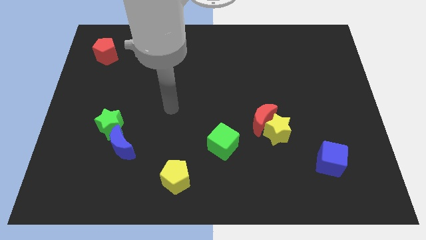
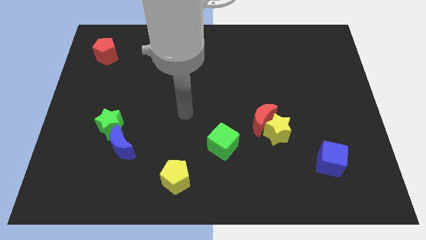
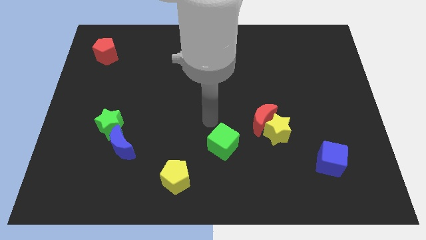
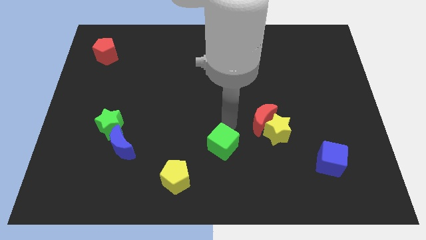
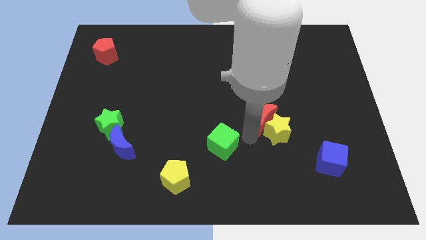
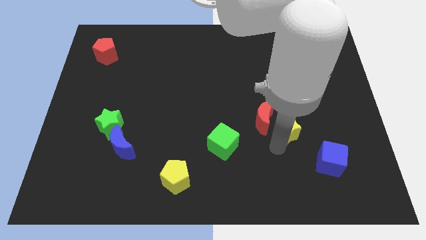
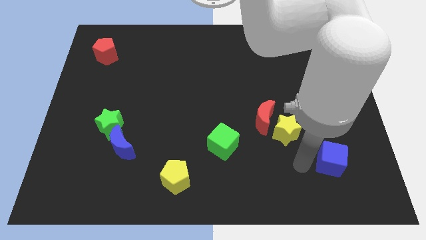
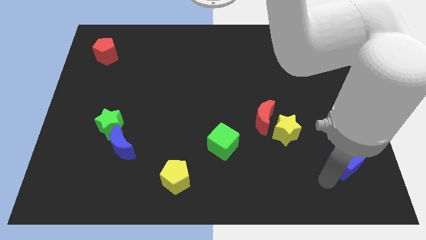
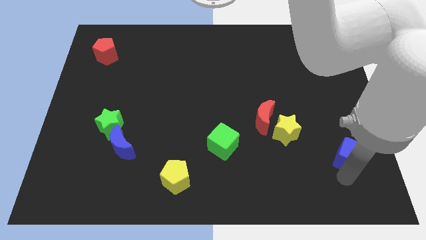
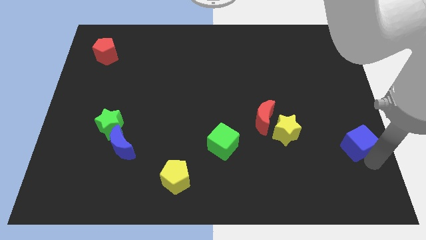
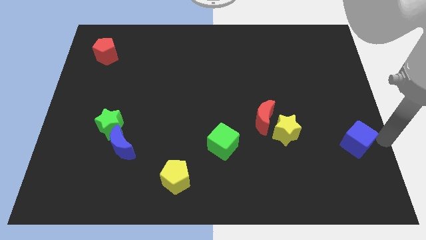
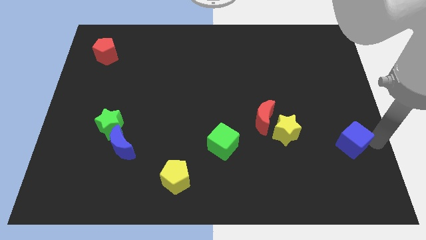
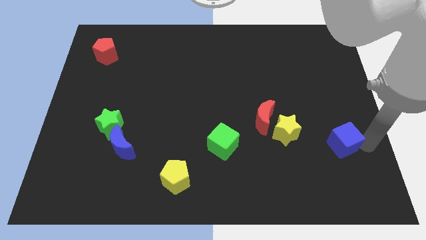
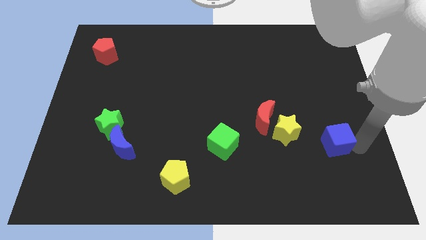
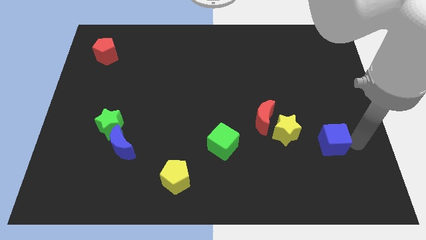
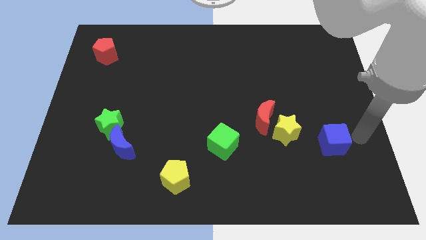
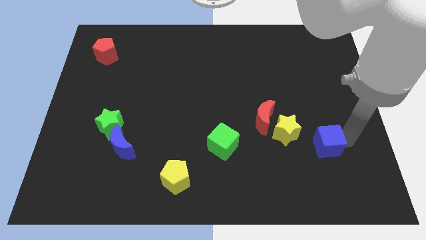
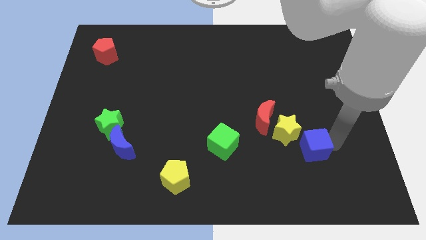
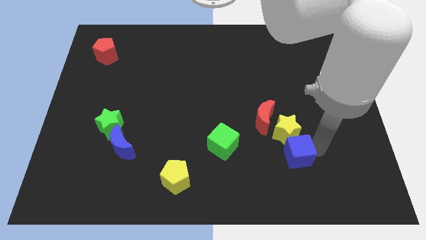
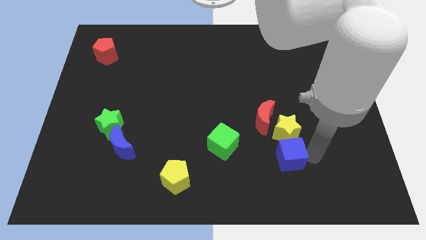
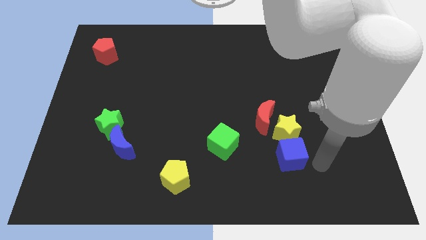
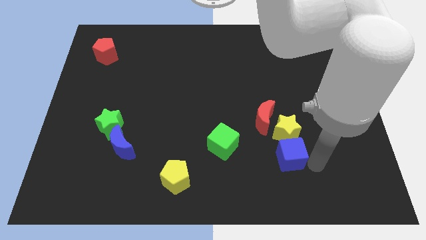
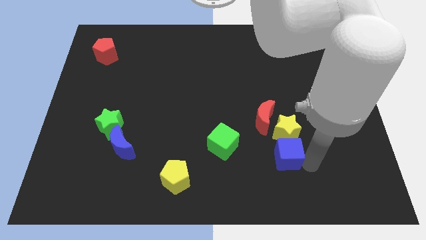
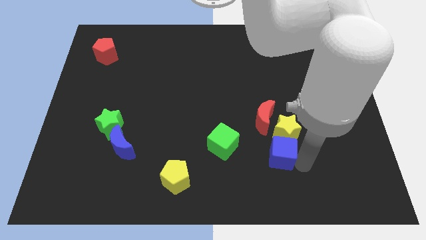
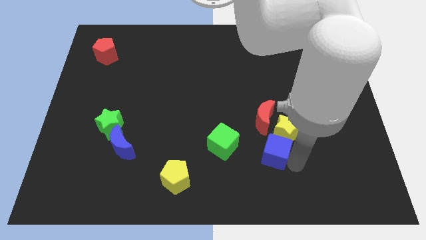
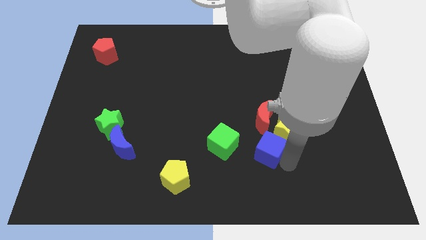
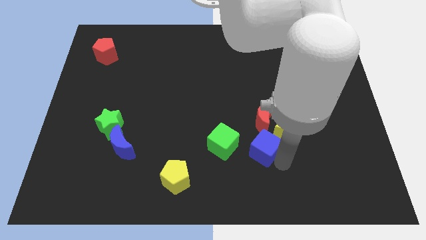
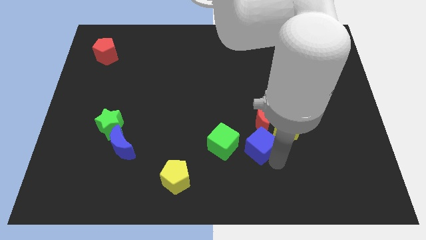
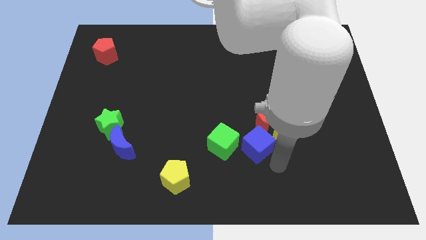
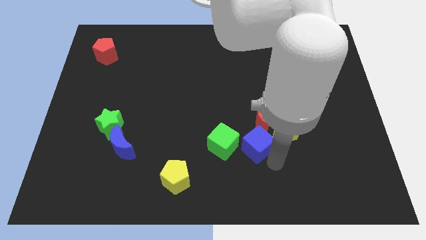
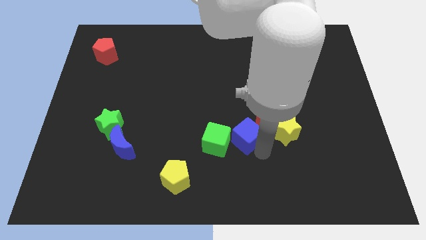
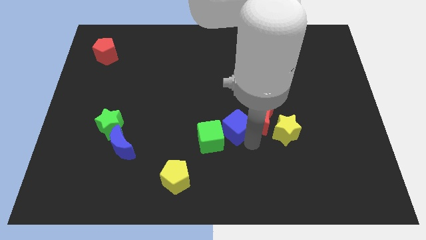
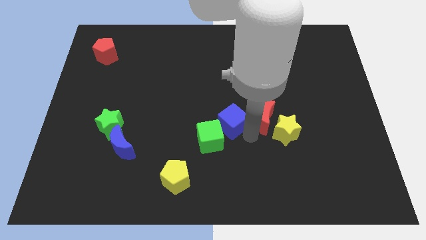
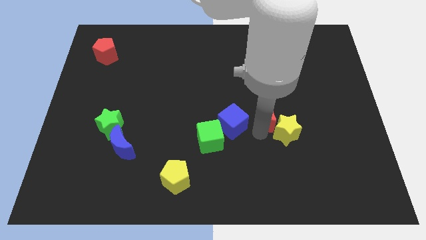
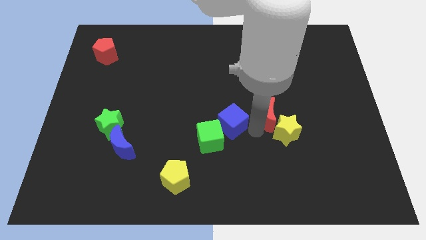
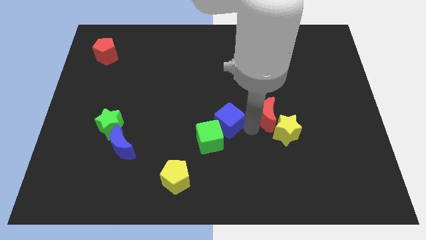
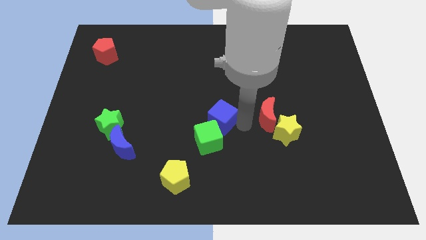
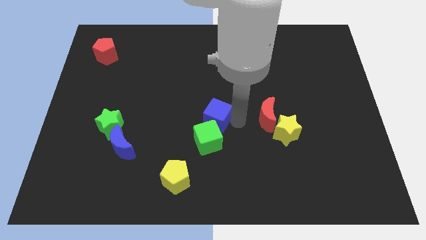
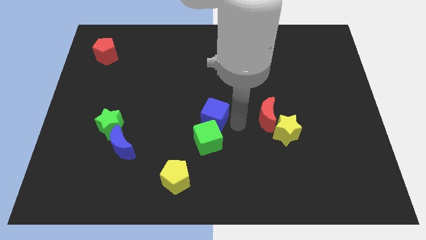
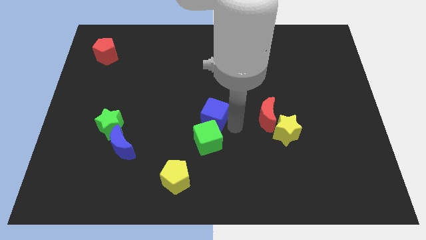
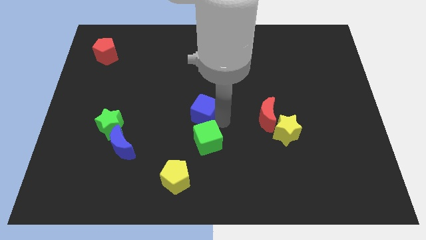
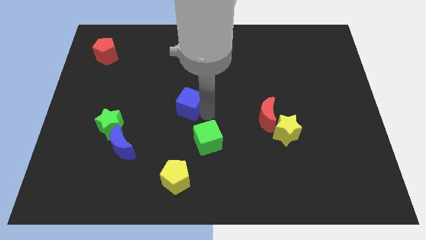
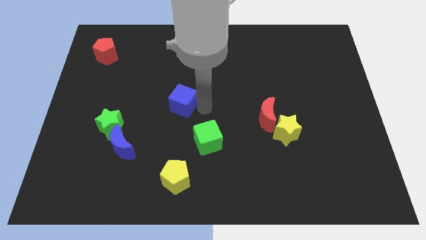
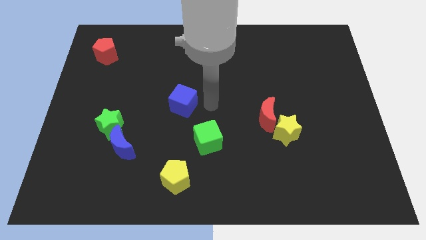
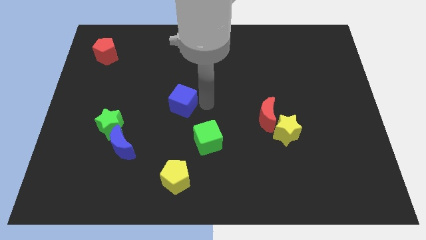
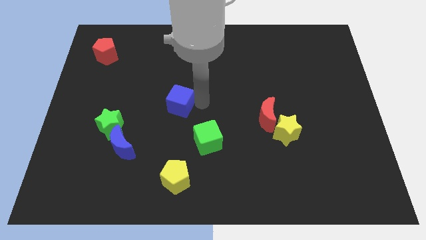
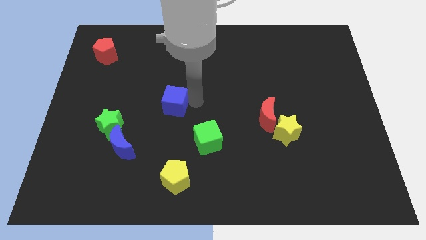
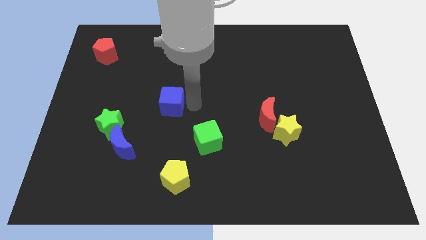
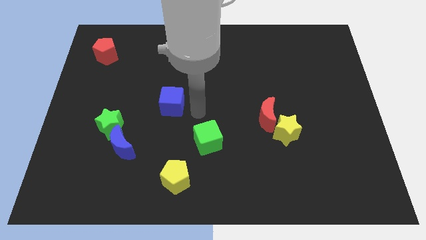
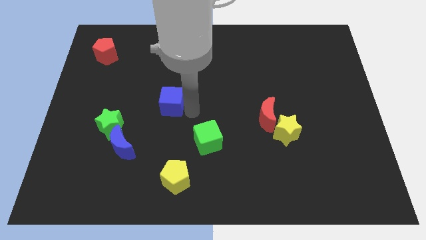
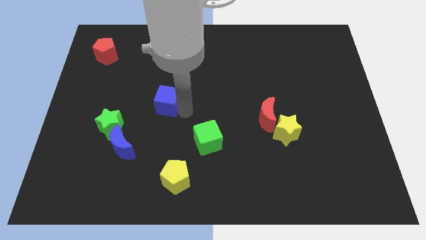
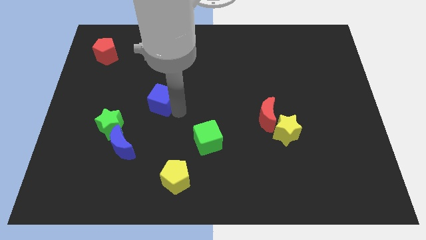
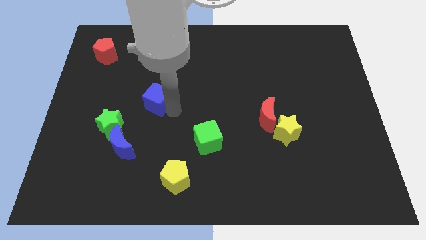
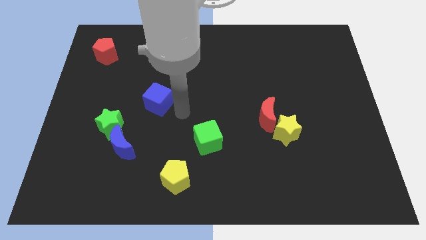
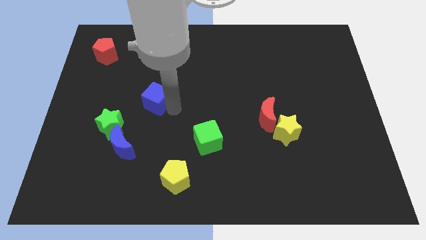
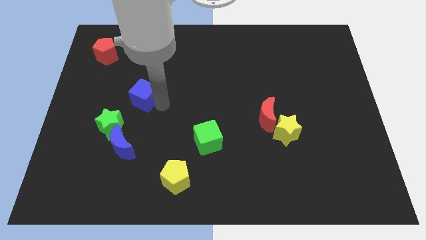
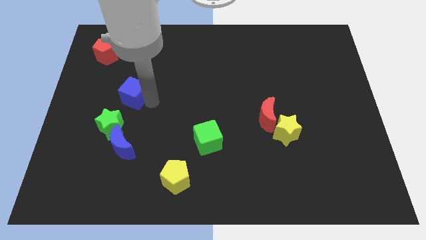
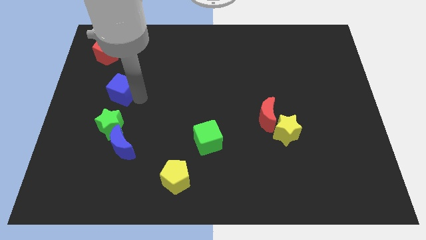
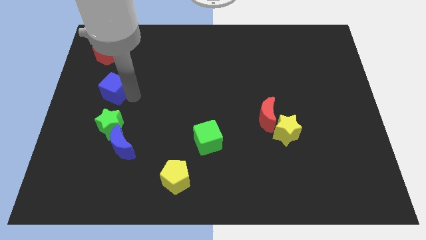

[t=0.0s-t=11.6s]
slide the blue cube to the bottom of the red pentagon

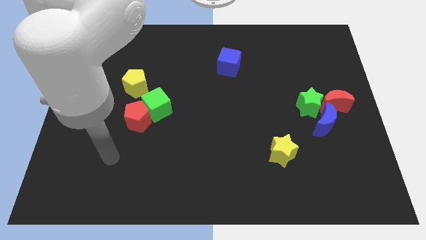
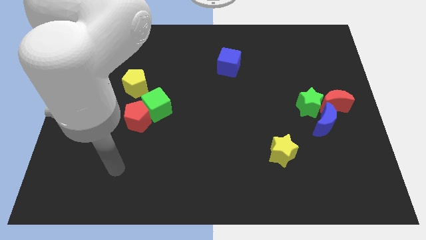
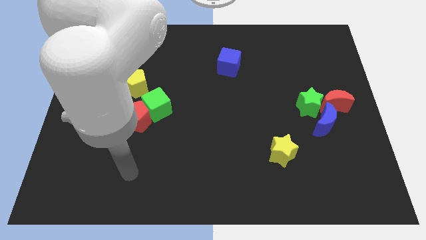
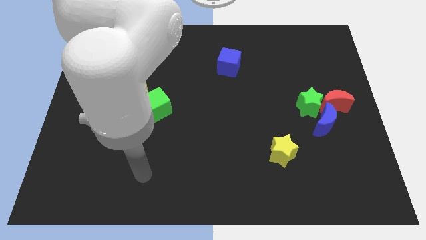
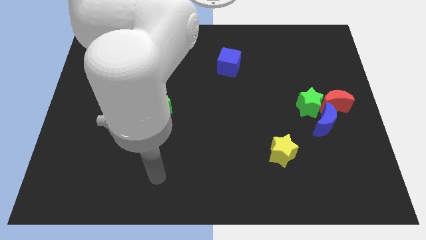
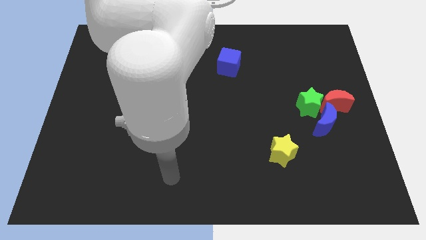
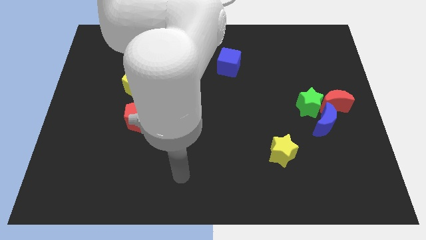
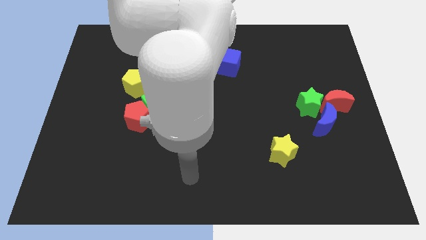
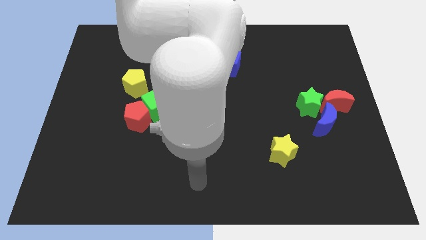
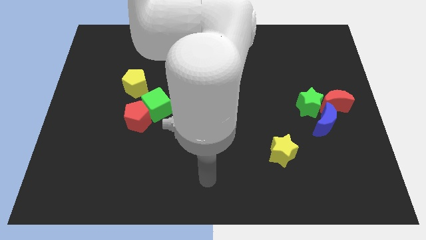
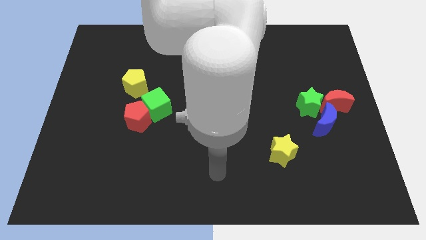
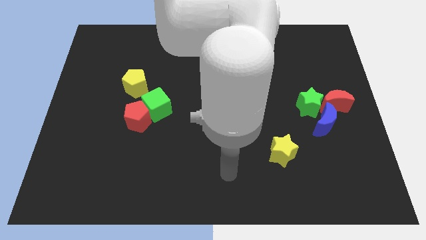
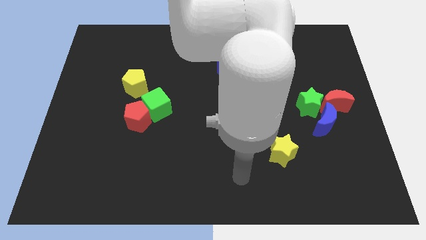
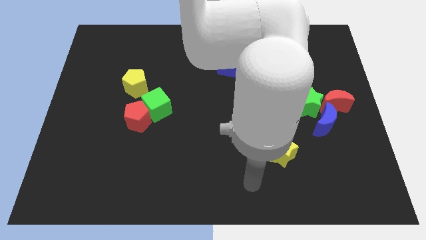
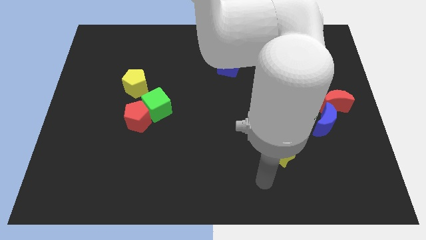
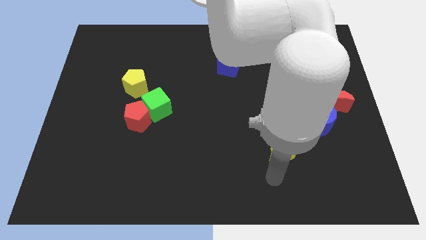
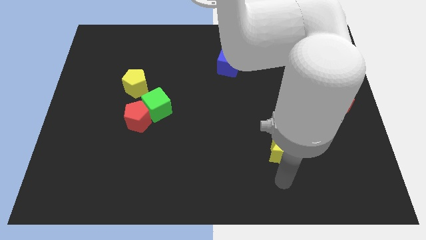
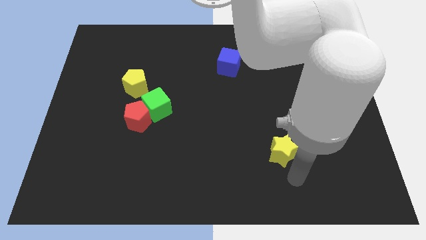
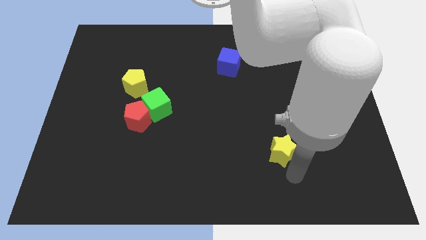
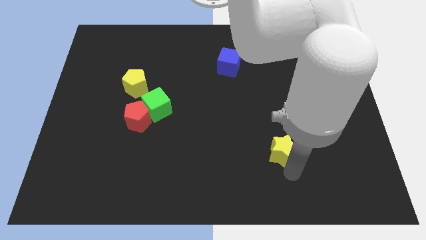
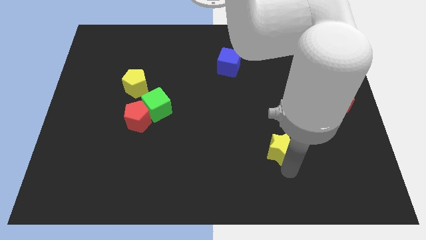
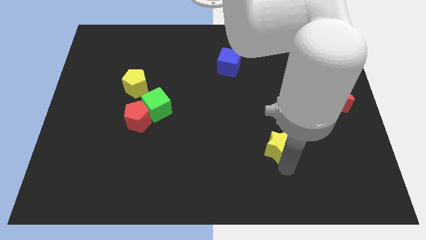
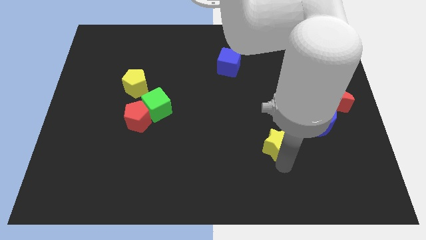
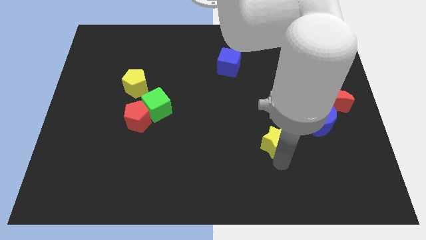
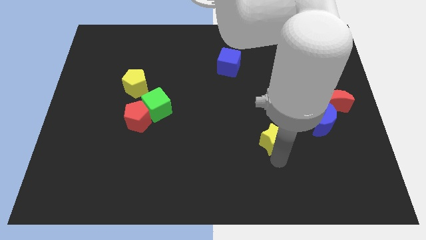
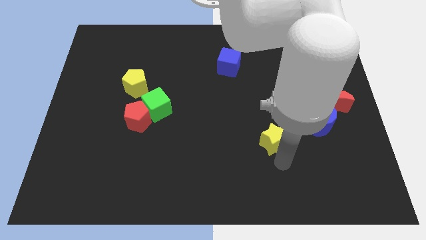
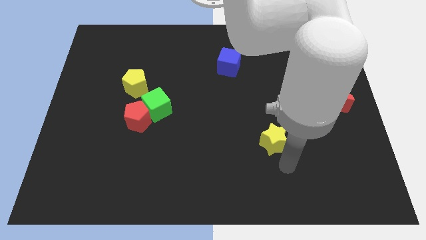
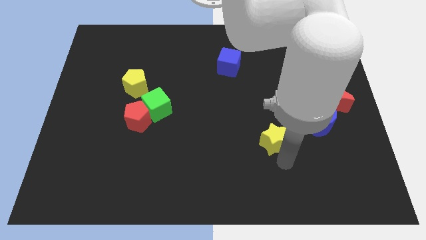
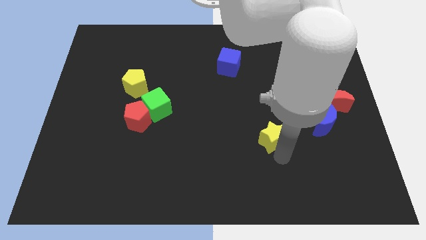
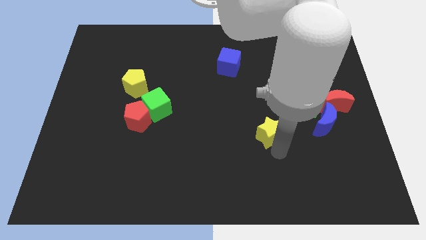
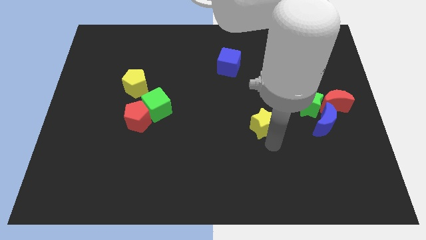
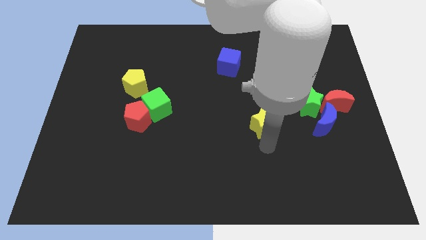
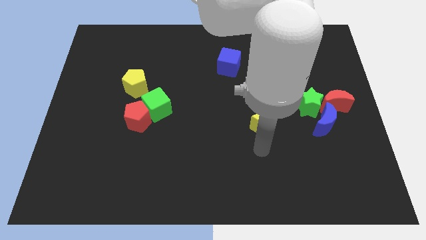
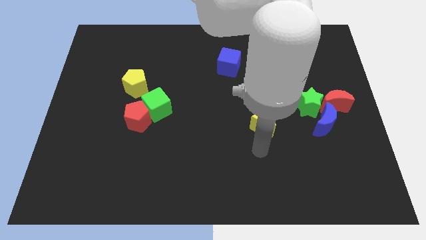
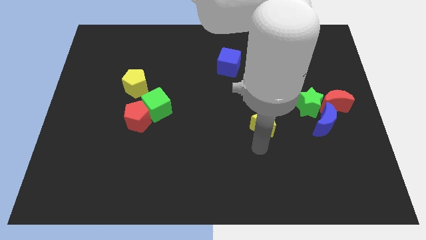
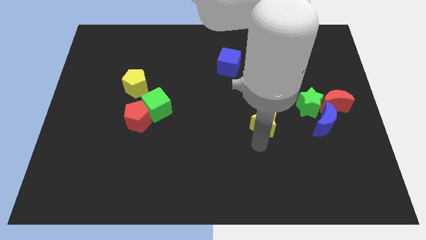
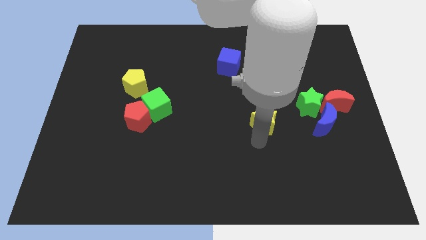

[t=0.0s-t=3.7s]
move the yellow star to the left of the green star
